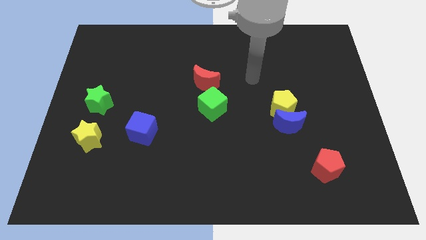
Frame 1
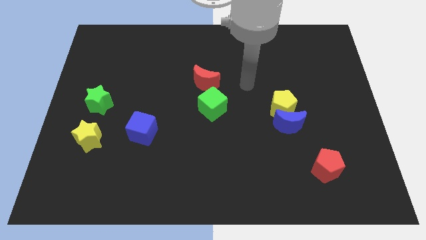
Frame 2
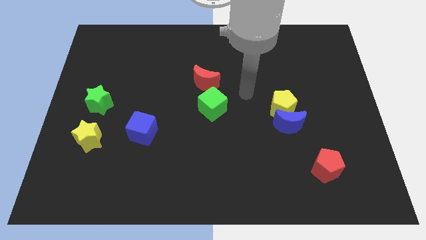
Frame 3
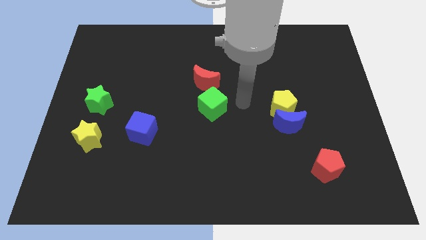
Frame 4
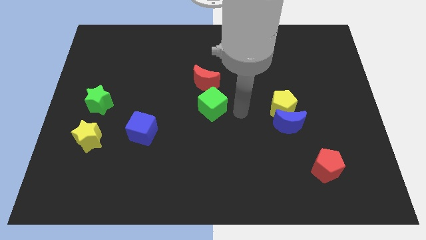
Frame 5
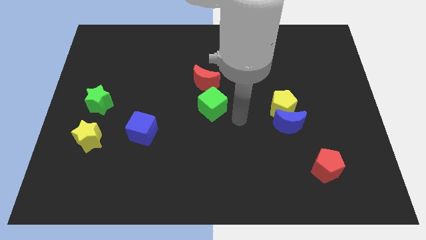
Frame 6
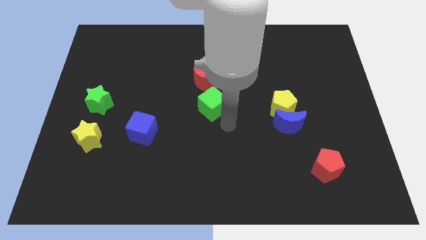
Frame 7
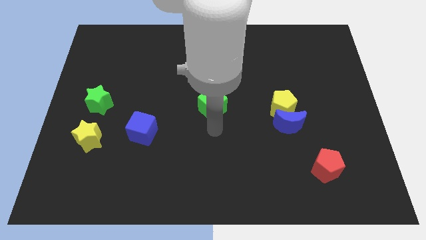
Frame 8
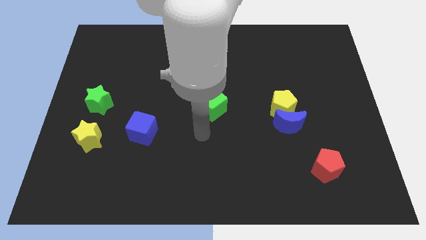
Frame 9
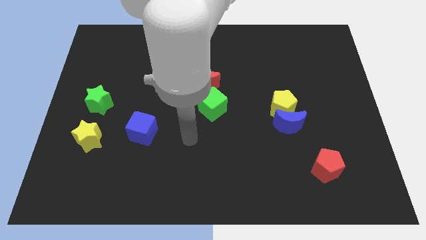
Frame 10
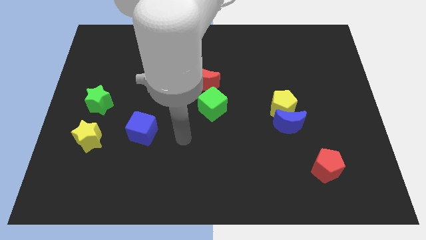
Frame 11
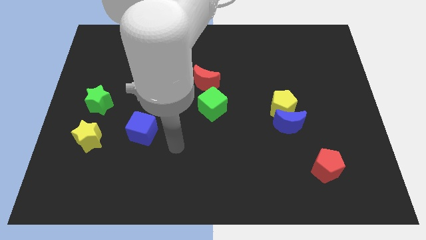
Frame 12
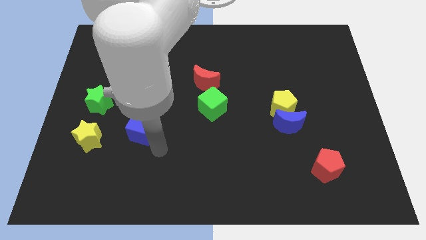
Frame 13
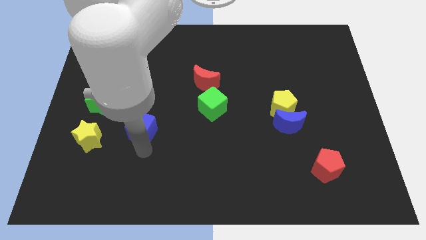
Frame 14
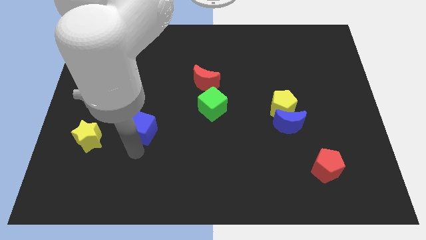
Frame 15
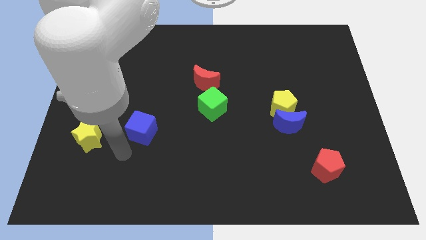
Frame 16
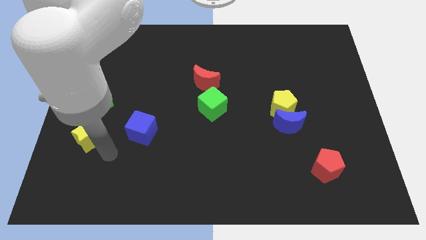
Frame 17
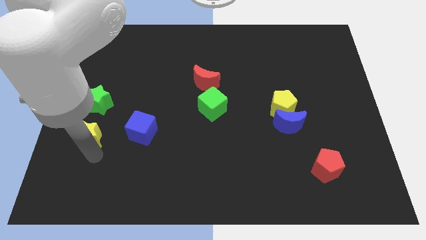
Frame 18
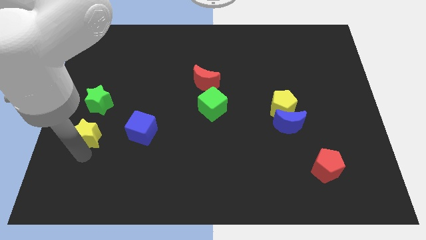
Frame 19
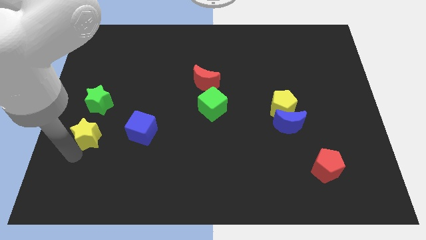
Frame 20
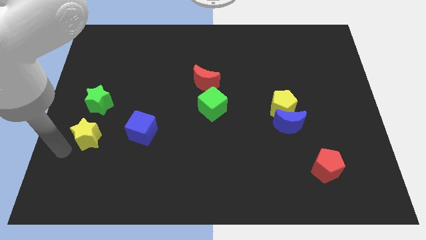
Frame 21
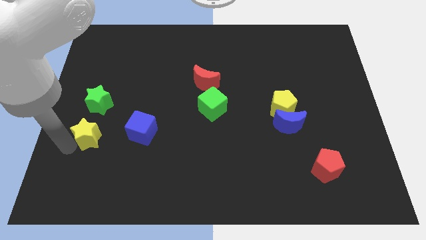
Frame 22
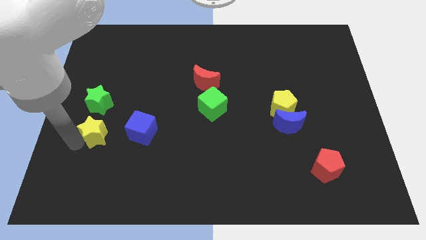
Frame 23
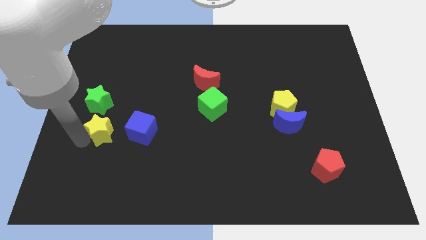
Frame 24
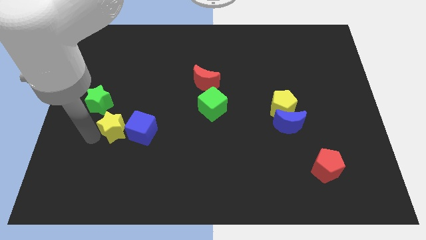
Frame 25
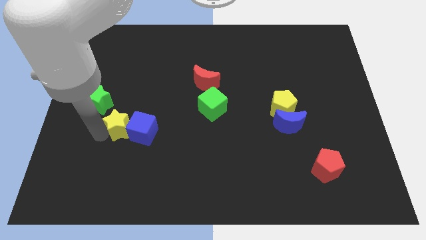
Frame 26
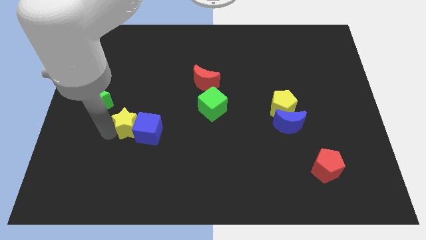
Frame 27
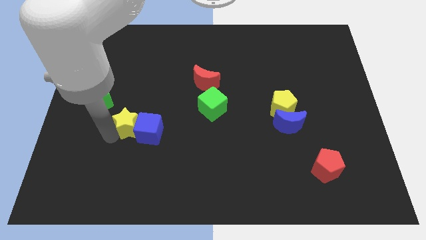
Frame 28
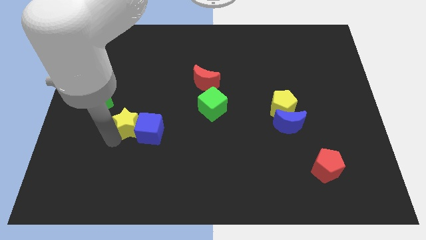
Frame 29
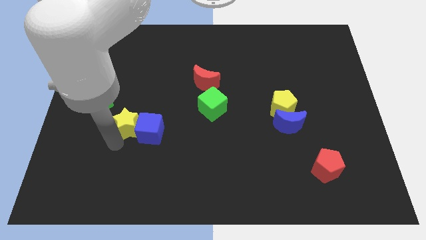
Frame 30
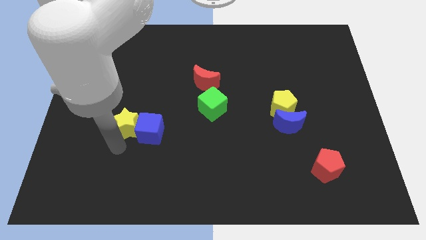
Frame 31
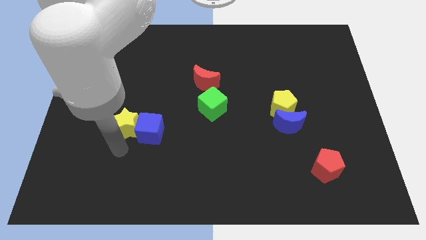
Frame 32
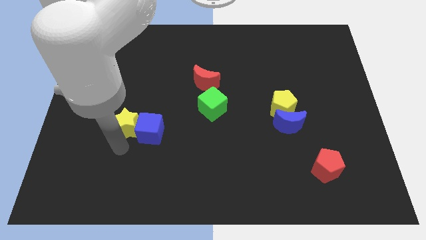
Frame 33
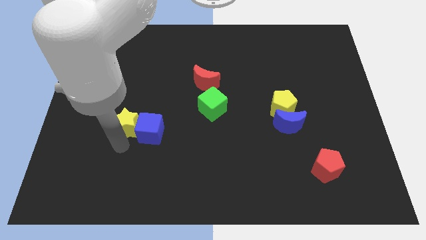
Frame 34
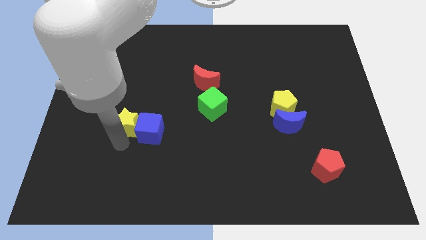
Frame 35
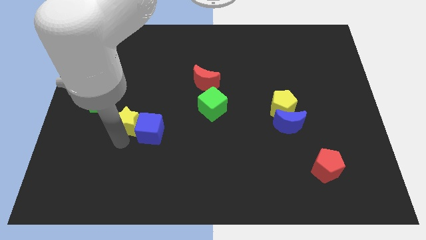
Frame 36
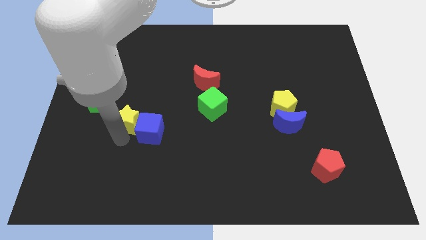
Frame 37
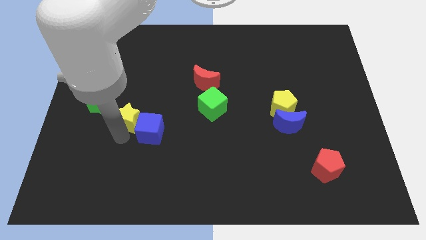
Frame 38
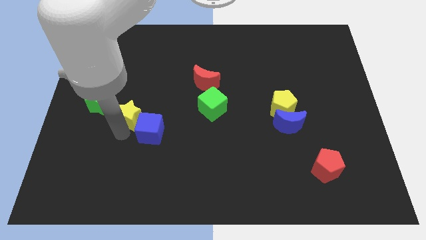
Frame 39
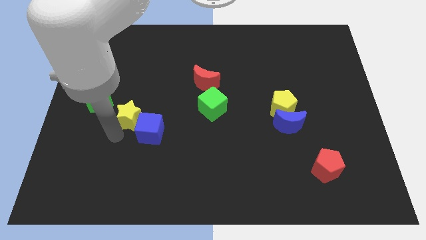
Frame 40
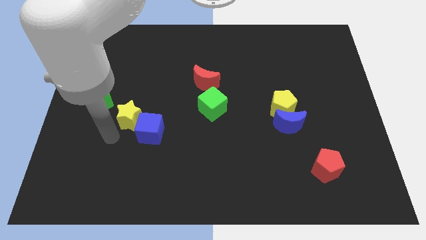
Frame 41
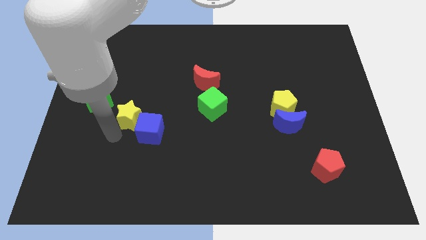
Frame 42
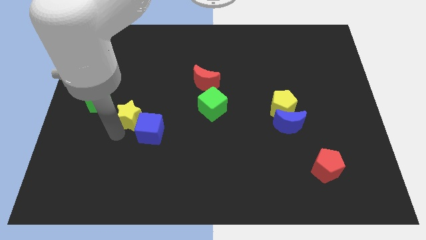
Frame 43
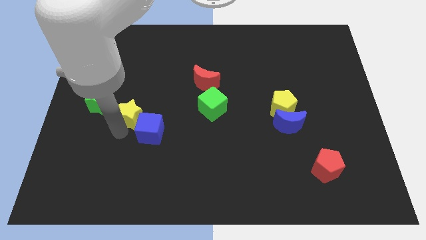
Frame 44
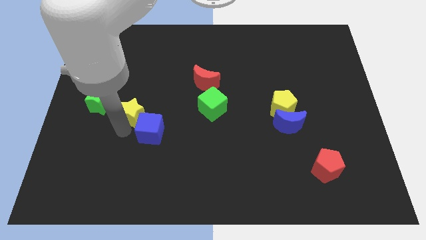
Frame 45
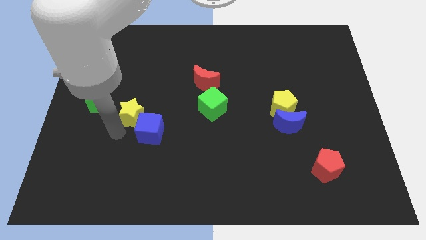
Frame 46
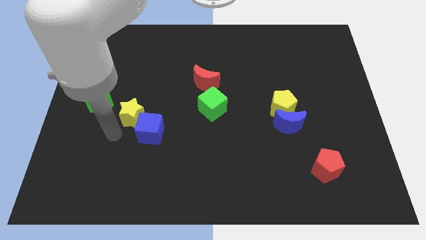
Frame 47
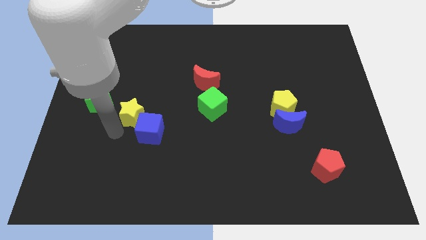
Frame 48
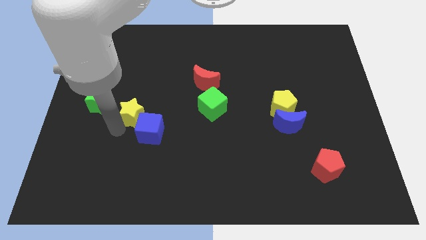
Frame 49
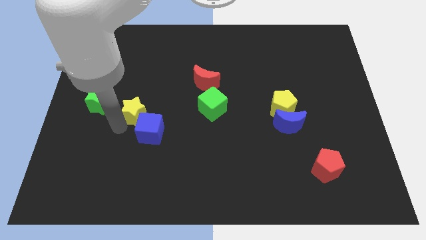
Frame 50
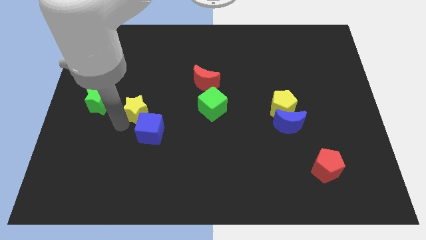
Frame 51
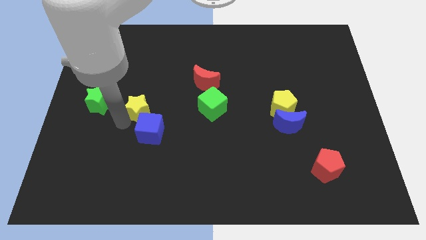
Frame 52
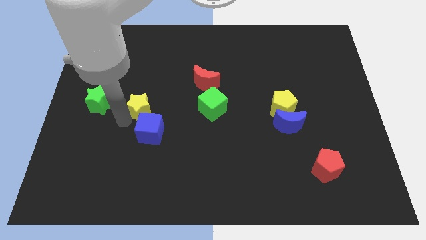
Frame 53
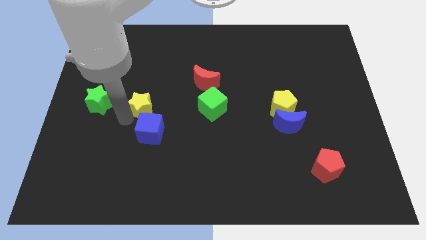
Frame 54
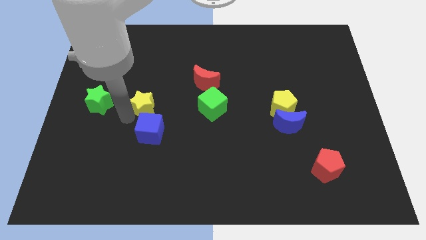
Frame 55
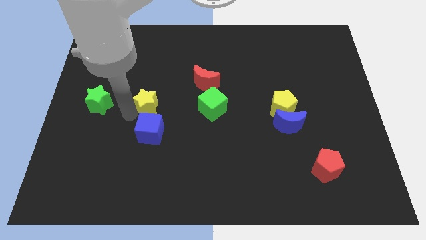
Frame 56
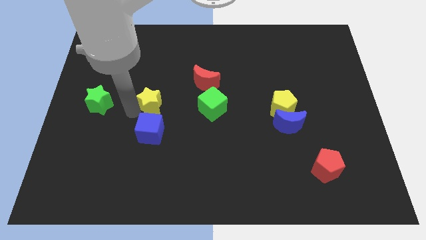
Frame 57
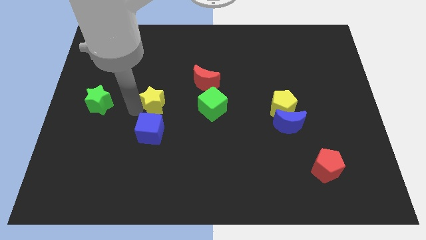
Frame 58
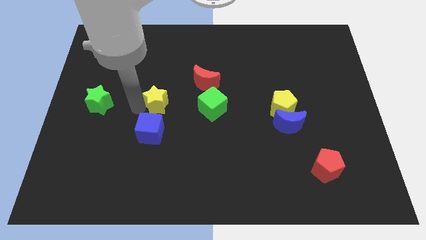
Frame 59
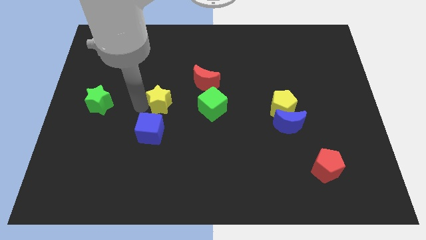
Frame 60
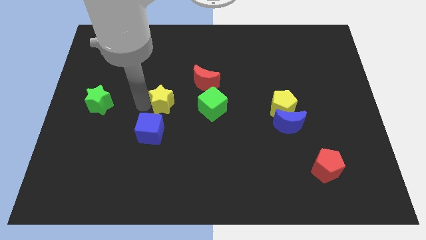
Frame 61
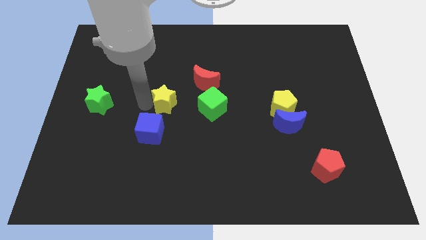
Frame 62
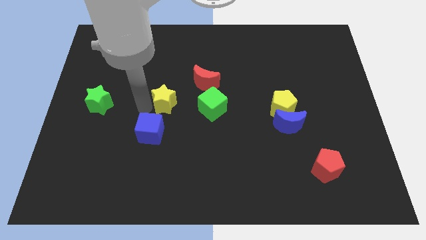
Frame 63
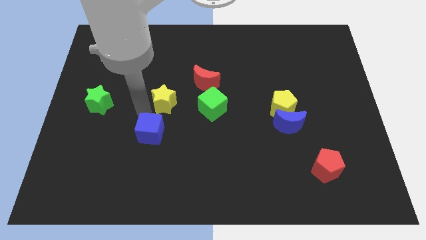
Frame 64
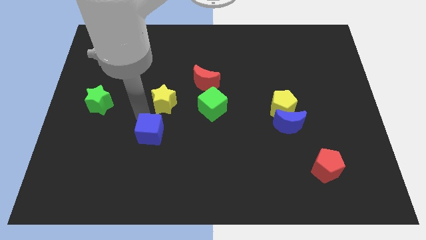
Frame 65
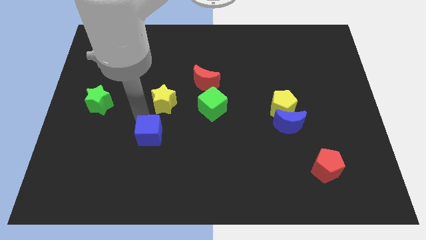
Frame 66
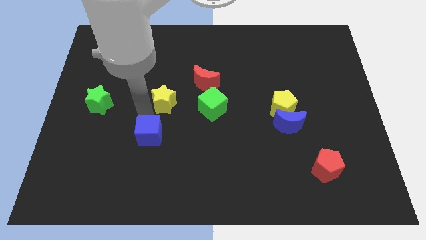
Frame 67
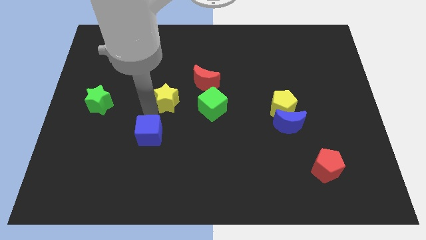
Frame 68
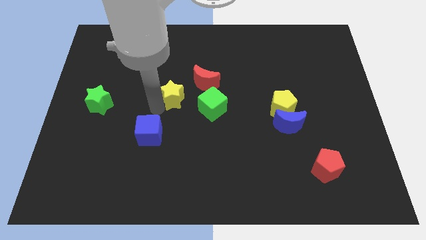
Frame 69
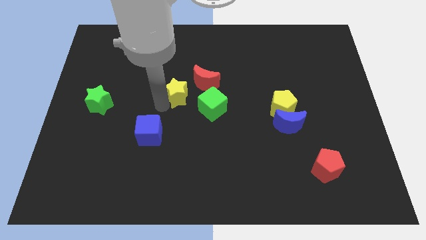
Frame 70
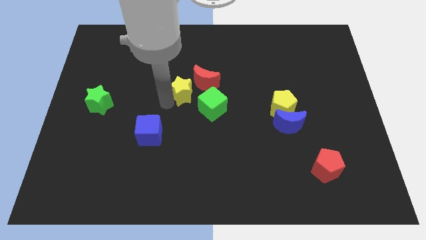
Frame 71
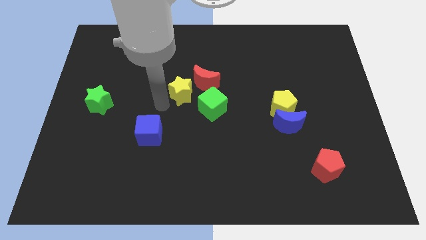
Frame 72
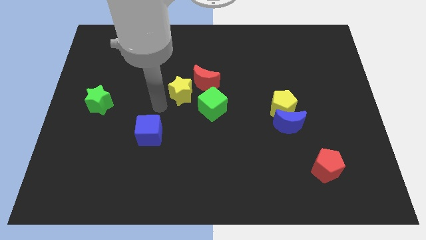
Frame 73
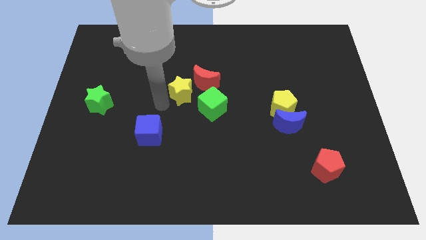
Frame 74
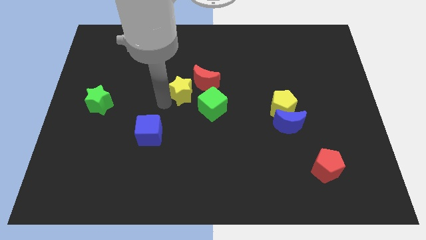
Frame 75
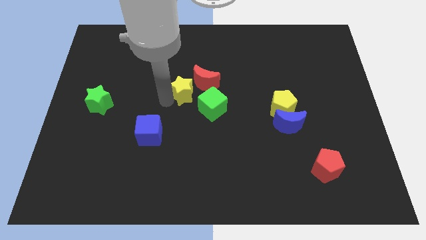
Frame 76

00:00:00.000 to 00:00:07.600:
put the yellow star next to the red moon
